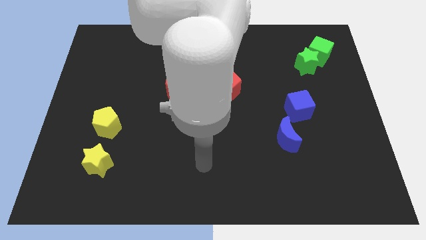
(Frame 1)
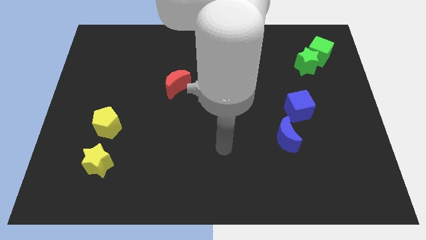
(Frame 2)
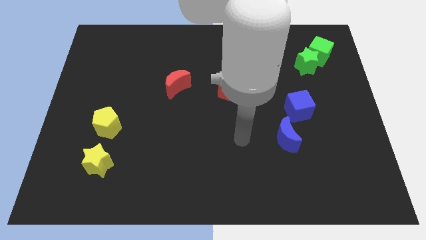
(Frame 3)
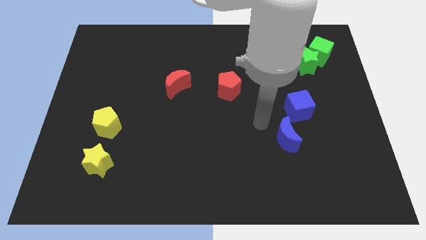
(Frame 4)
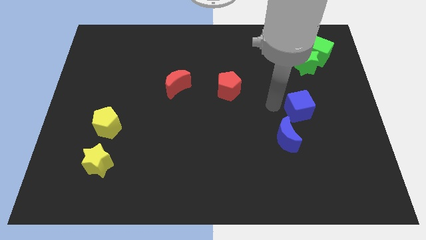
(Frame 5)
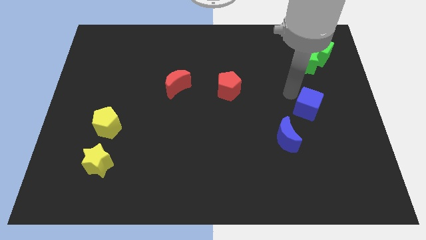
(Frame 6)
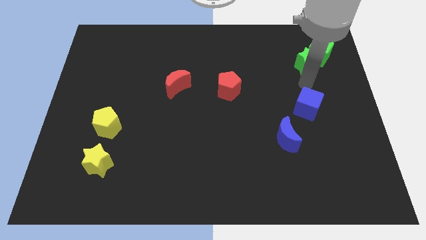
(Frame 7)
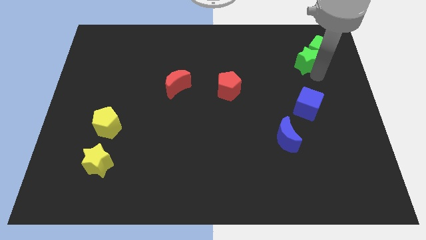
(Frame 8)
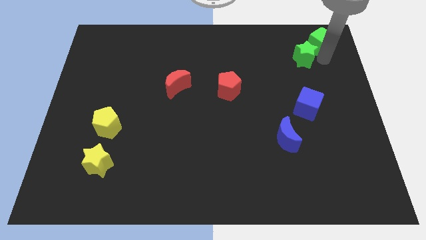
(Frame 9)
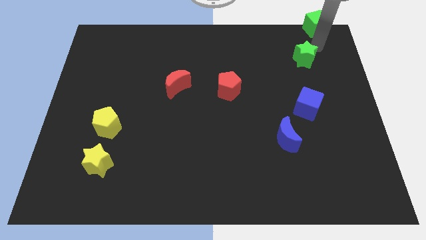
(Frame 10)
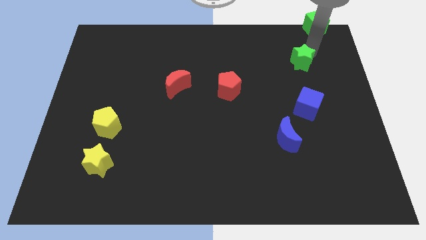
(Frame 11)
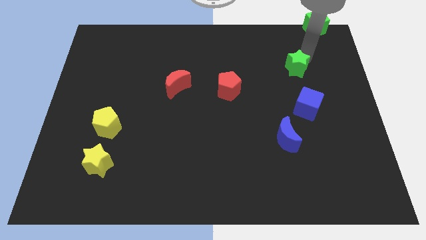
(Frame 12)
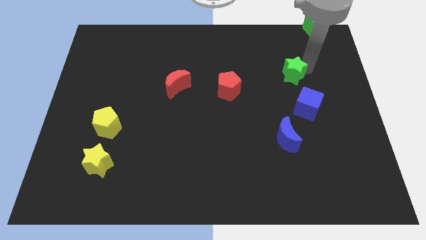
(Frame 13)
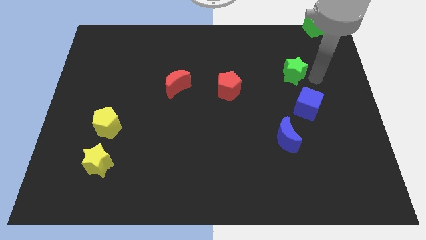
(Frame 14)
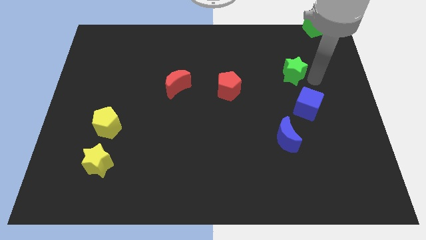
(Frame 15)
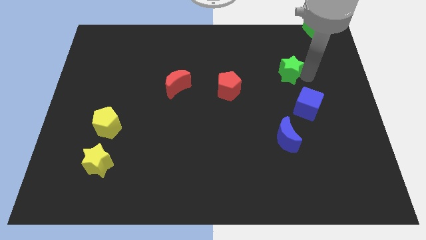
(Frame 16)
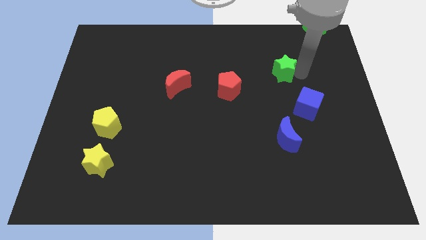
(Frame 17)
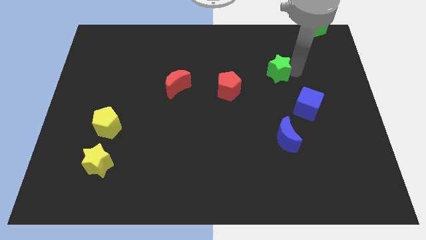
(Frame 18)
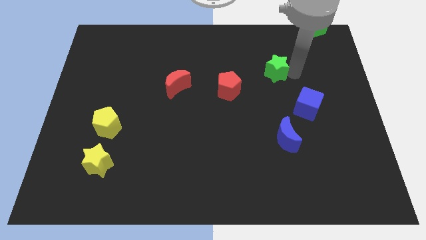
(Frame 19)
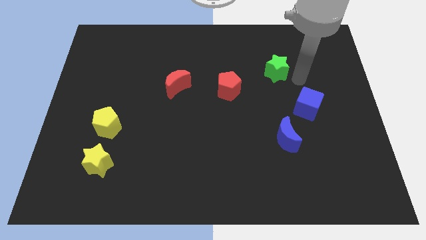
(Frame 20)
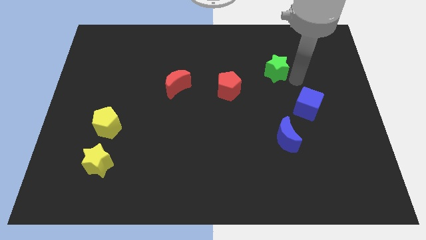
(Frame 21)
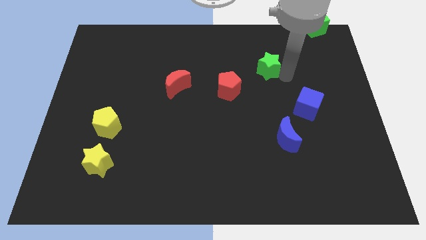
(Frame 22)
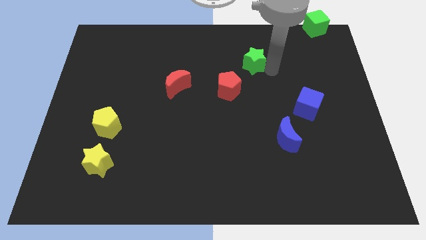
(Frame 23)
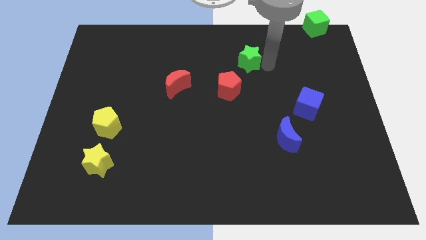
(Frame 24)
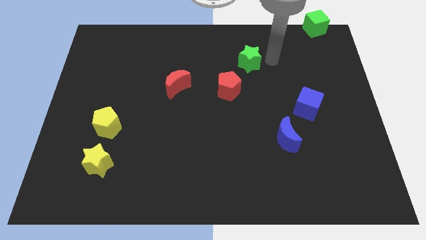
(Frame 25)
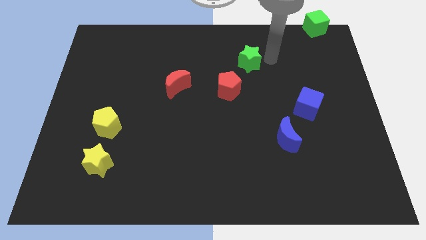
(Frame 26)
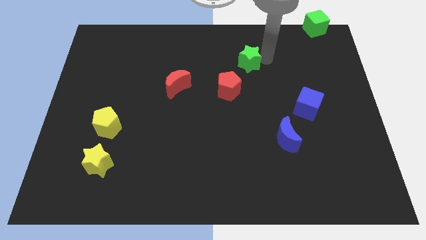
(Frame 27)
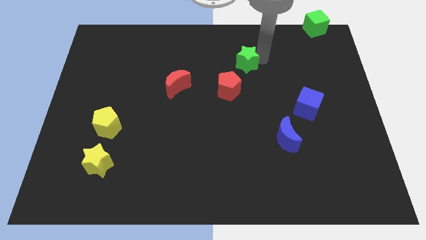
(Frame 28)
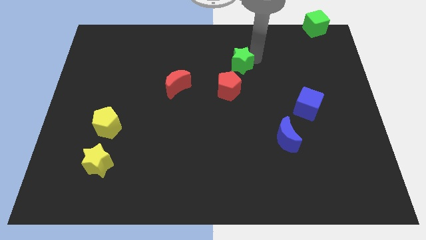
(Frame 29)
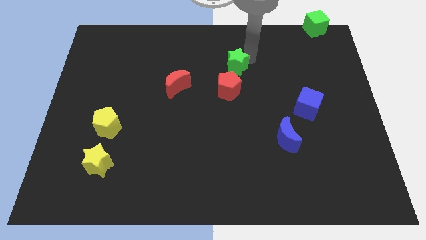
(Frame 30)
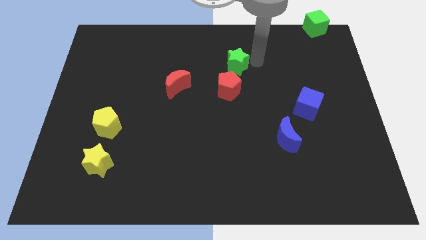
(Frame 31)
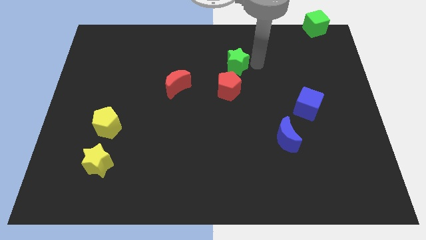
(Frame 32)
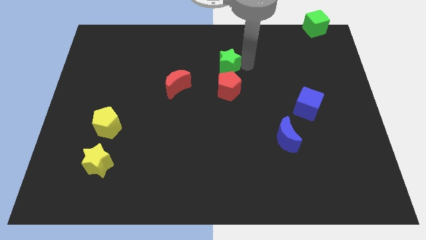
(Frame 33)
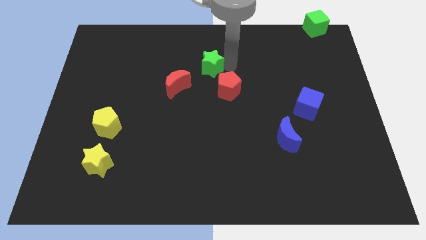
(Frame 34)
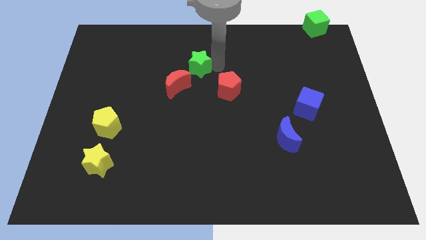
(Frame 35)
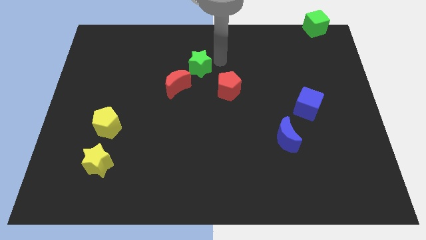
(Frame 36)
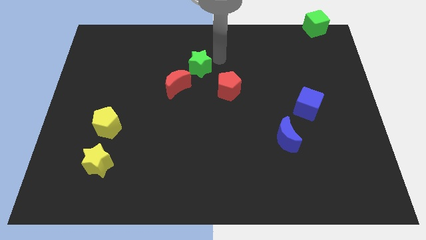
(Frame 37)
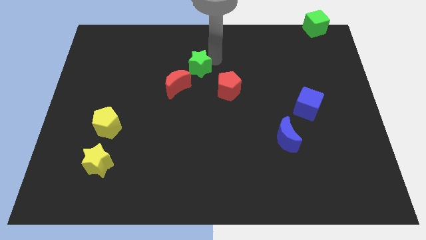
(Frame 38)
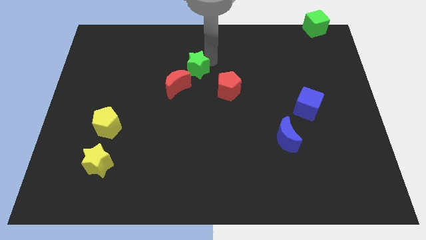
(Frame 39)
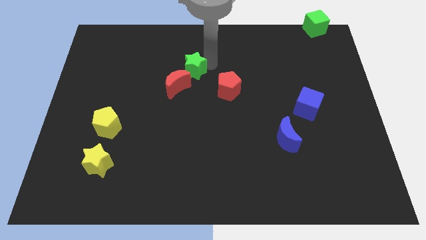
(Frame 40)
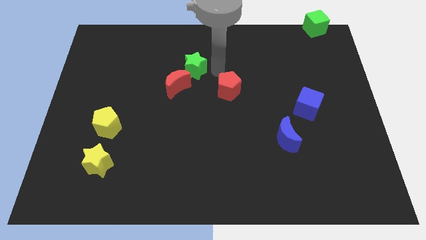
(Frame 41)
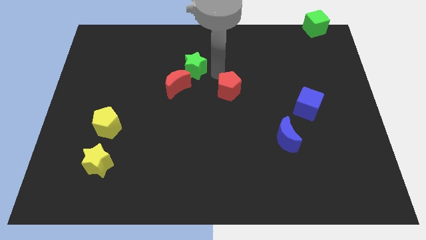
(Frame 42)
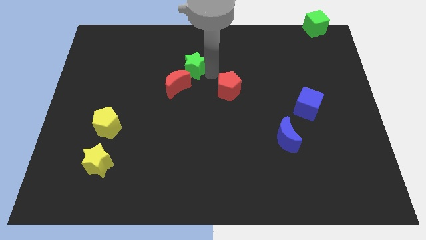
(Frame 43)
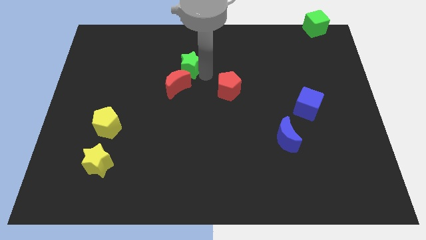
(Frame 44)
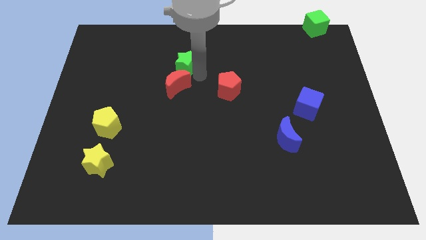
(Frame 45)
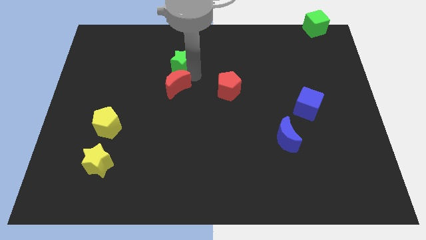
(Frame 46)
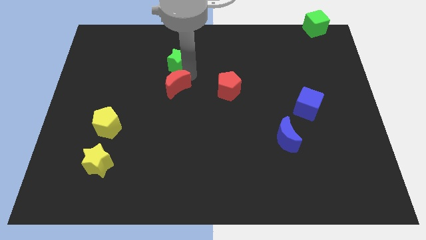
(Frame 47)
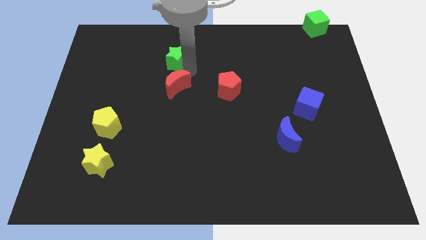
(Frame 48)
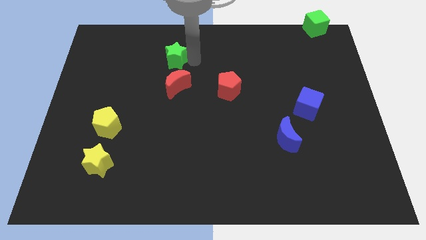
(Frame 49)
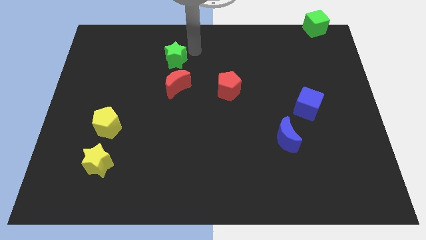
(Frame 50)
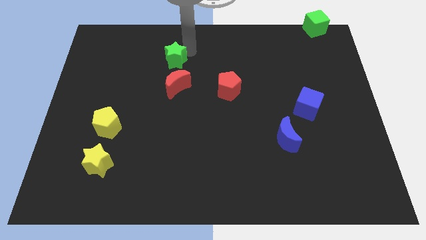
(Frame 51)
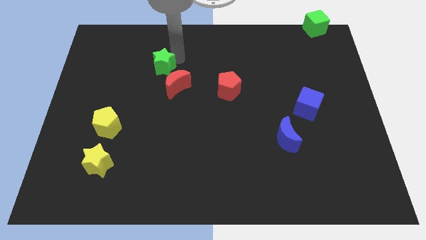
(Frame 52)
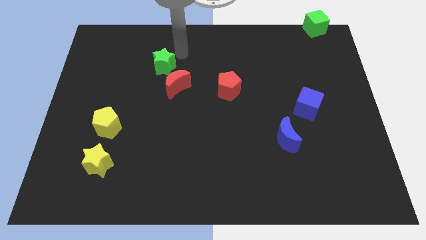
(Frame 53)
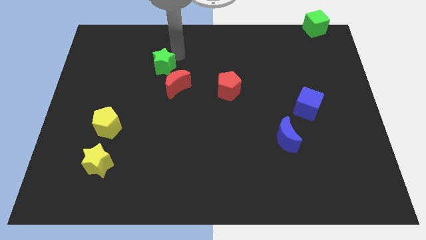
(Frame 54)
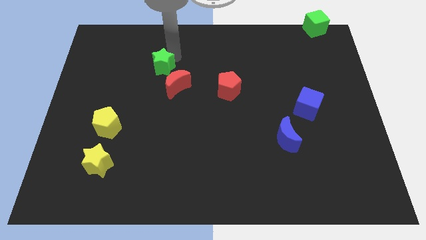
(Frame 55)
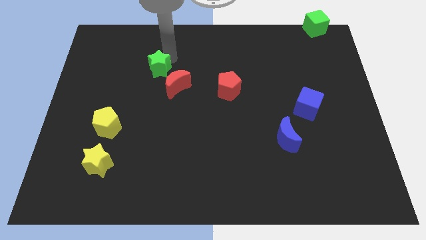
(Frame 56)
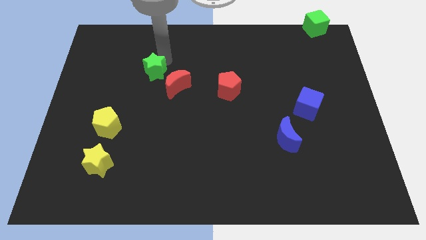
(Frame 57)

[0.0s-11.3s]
move the green star left of the red moon

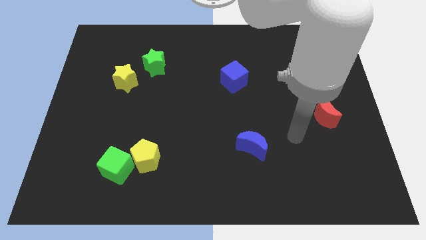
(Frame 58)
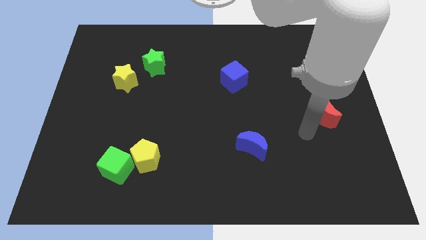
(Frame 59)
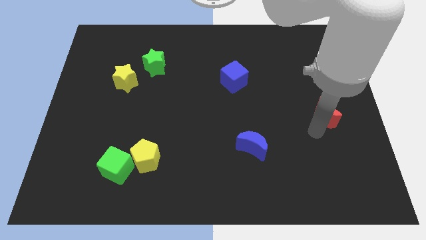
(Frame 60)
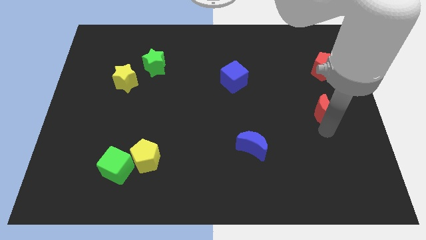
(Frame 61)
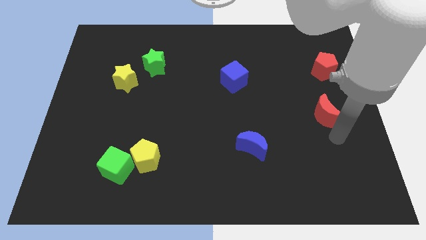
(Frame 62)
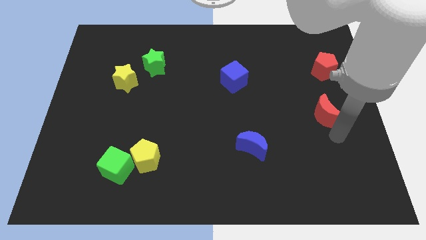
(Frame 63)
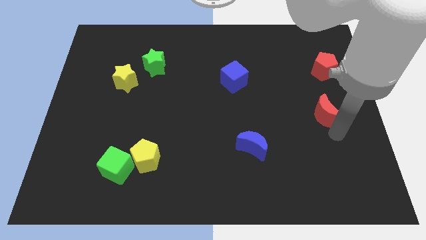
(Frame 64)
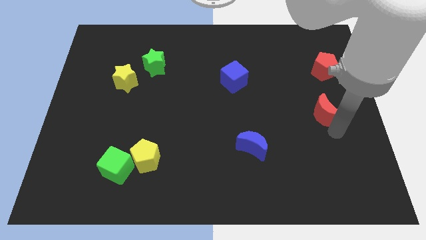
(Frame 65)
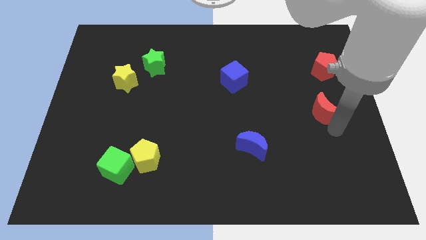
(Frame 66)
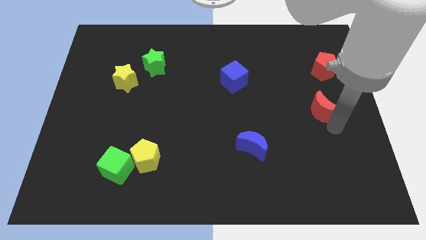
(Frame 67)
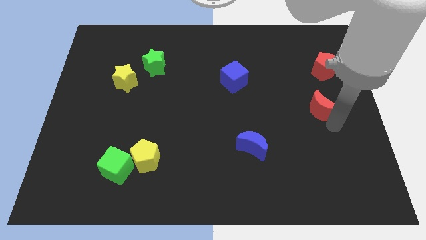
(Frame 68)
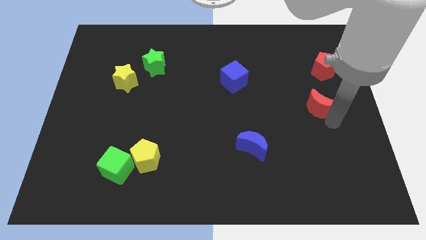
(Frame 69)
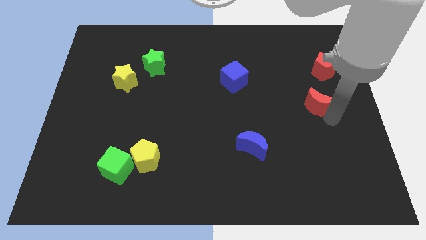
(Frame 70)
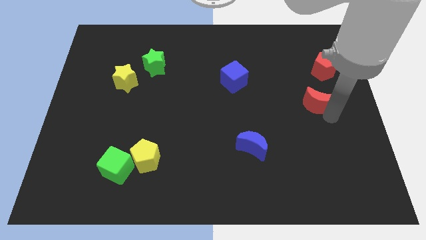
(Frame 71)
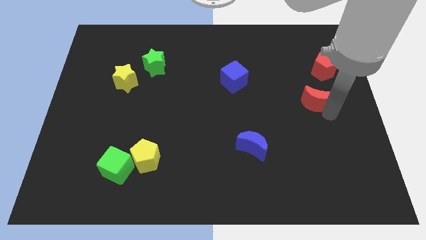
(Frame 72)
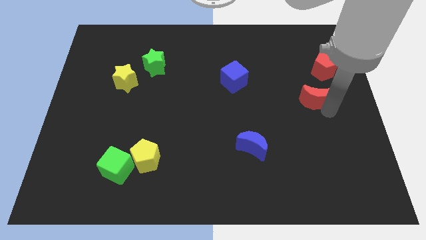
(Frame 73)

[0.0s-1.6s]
slide the red moon to the bottom left side of the red pentagon
